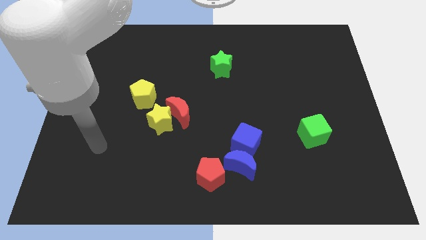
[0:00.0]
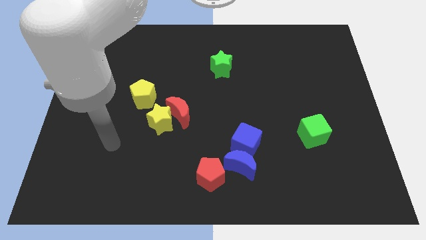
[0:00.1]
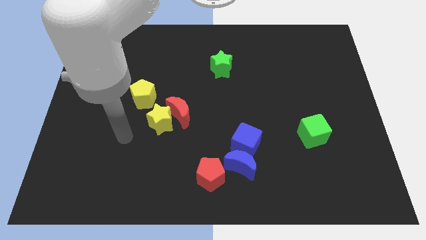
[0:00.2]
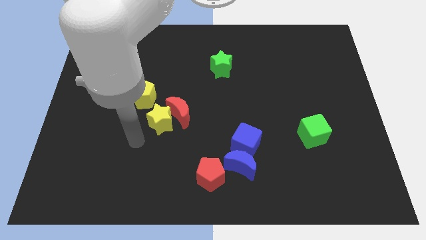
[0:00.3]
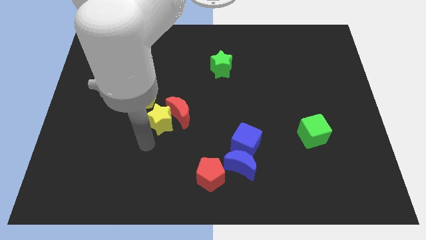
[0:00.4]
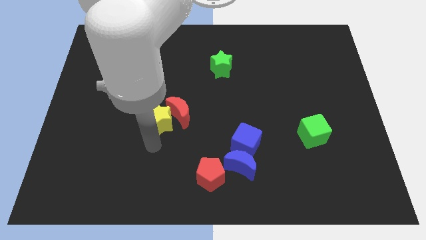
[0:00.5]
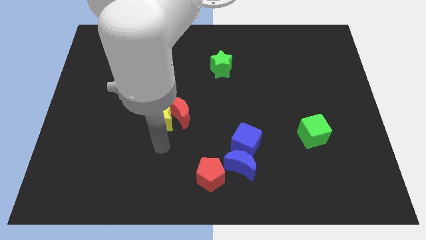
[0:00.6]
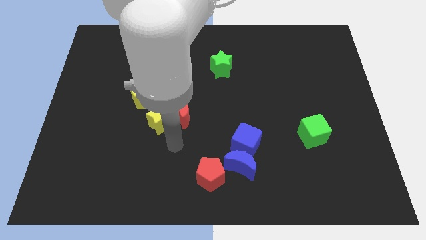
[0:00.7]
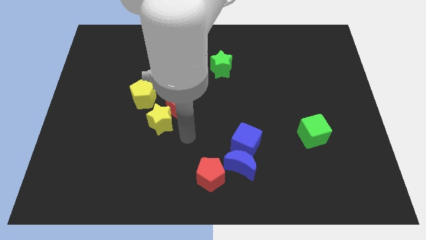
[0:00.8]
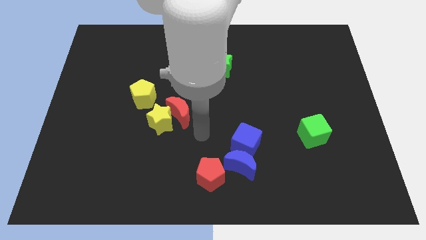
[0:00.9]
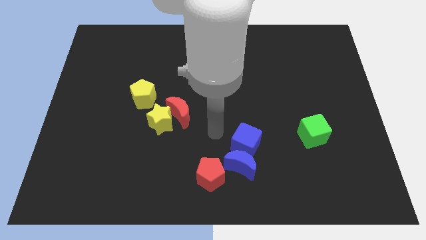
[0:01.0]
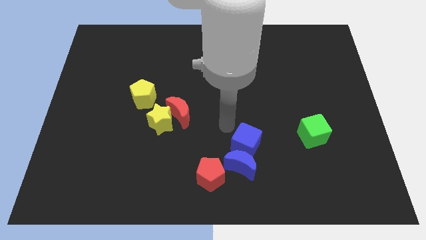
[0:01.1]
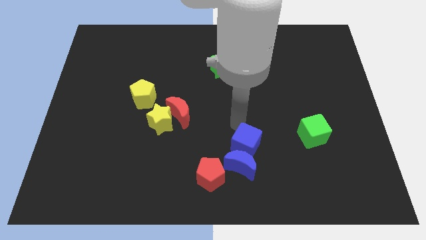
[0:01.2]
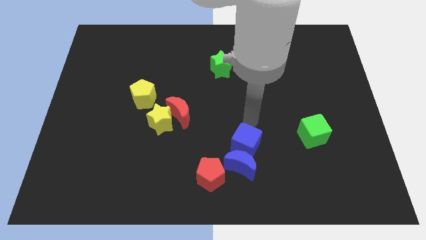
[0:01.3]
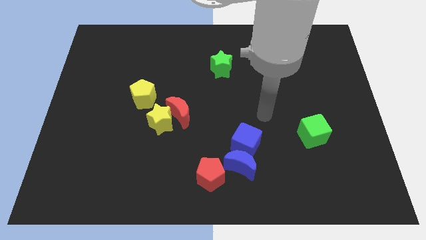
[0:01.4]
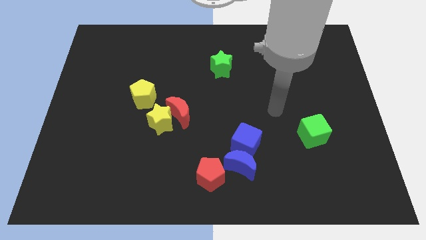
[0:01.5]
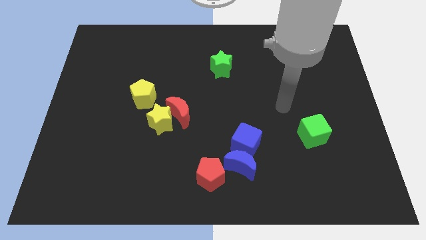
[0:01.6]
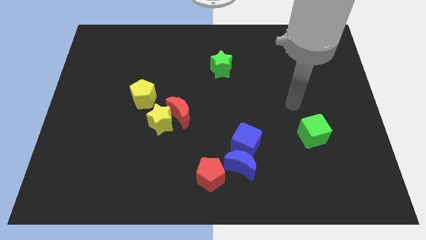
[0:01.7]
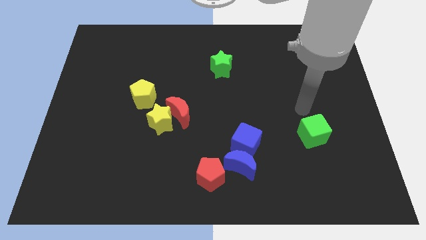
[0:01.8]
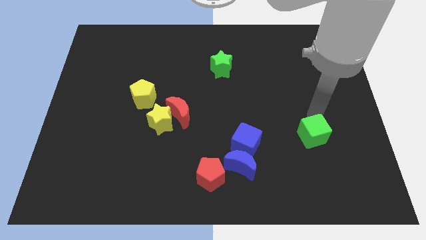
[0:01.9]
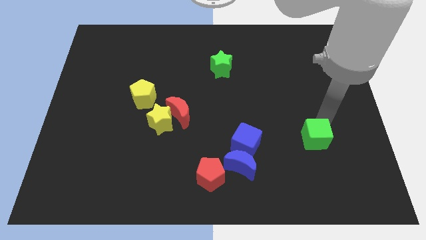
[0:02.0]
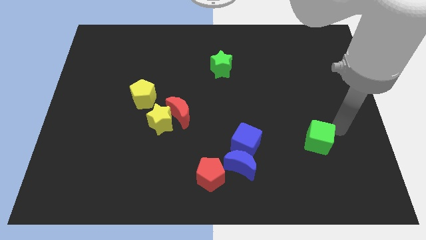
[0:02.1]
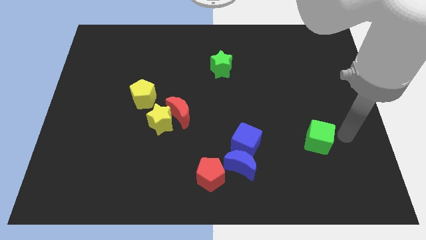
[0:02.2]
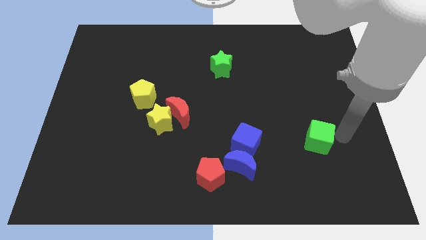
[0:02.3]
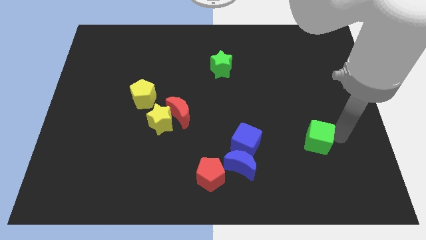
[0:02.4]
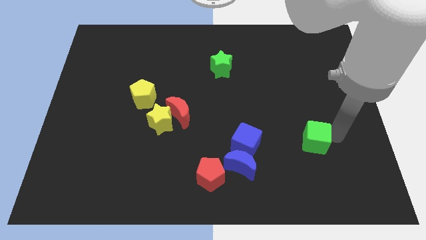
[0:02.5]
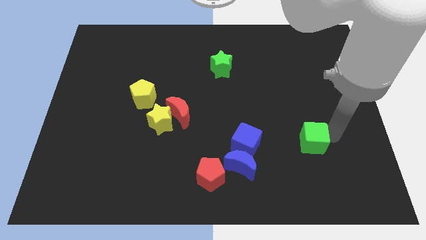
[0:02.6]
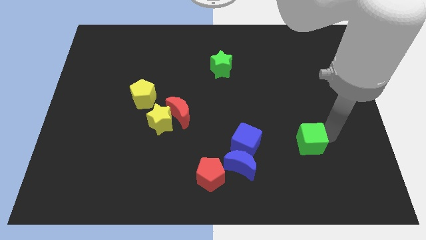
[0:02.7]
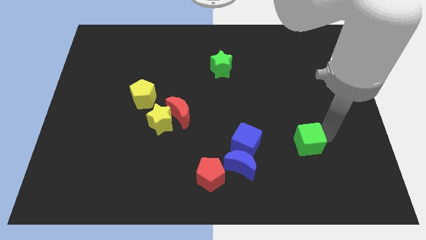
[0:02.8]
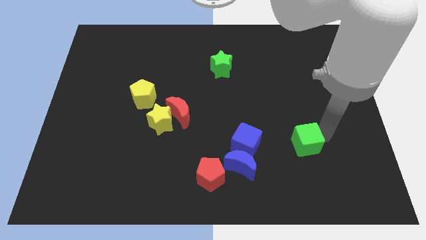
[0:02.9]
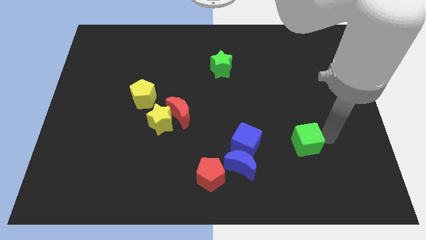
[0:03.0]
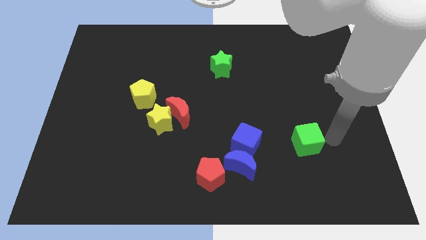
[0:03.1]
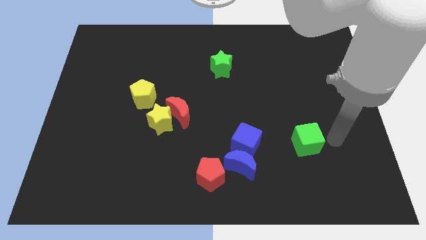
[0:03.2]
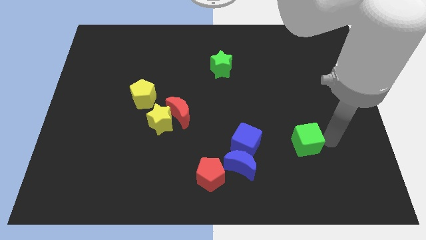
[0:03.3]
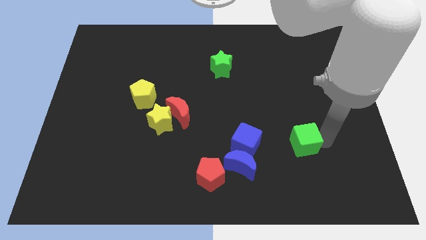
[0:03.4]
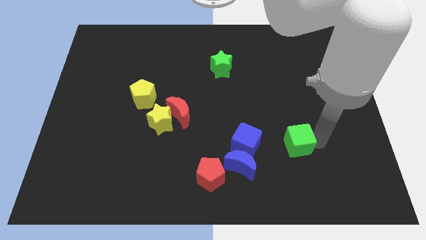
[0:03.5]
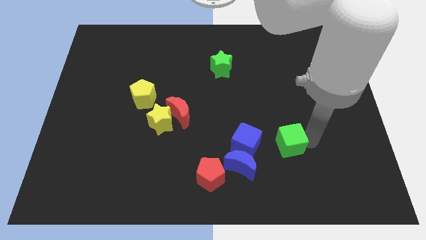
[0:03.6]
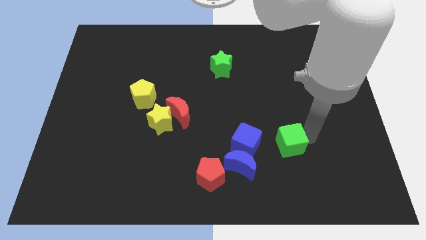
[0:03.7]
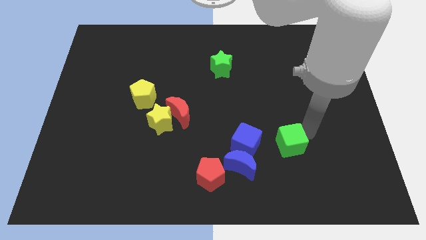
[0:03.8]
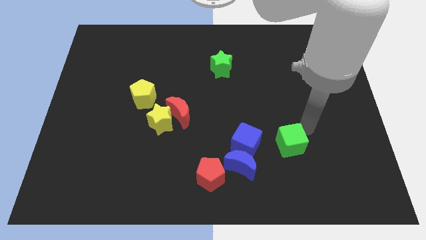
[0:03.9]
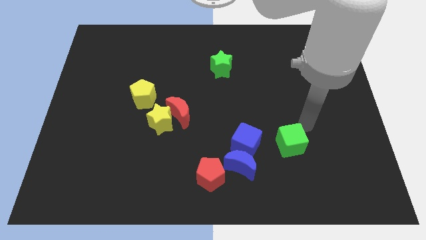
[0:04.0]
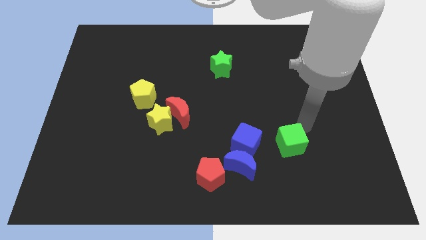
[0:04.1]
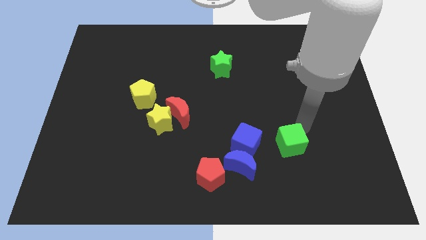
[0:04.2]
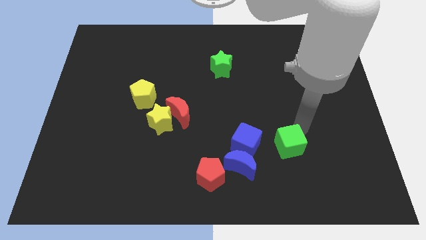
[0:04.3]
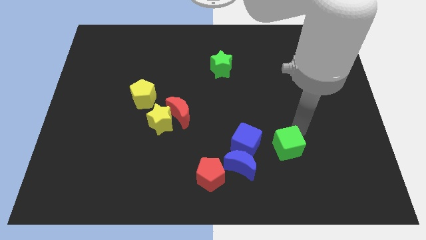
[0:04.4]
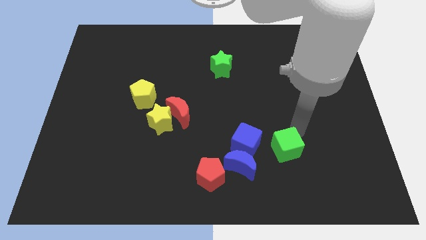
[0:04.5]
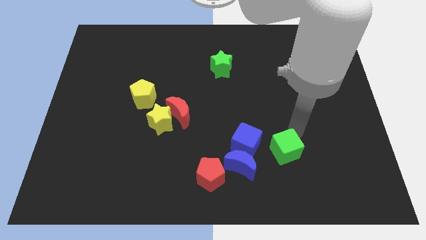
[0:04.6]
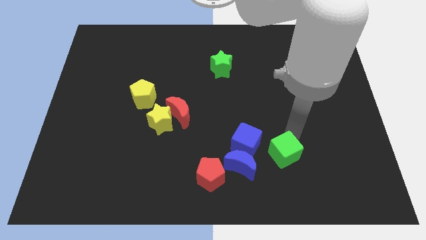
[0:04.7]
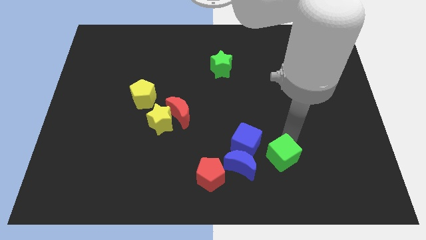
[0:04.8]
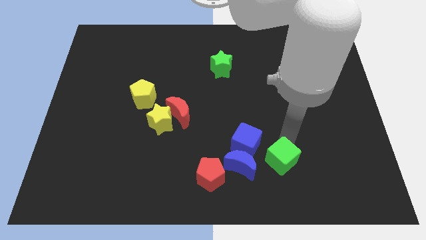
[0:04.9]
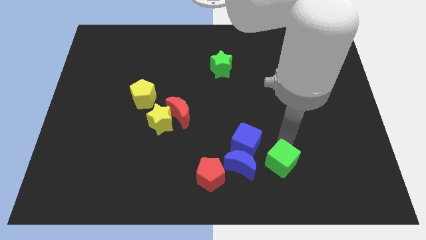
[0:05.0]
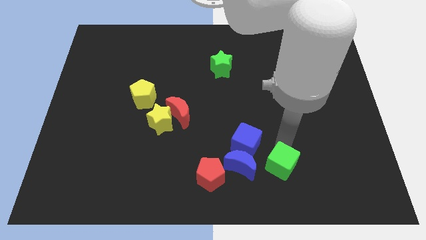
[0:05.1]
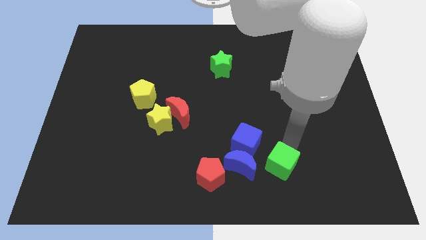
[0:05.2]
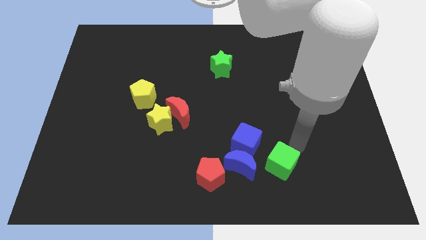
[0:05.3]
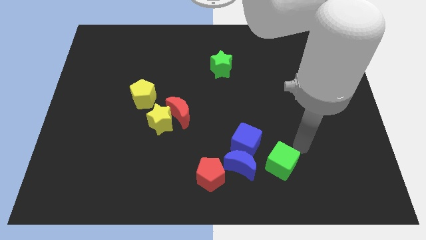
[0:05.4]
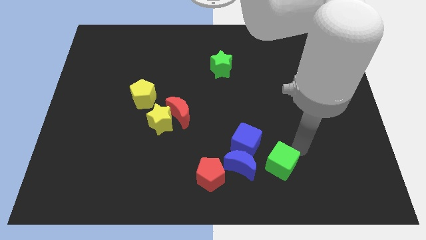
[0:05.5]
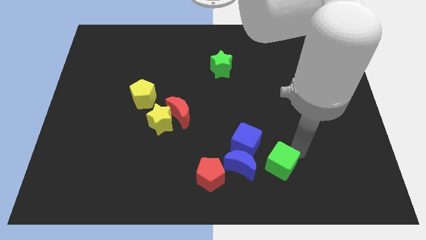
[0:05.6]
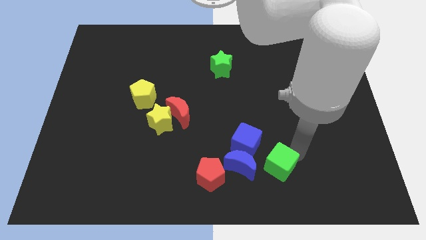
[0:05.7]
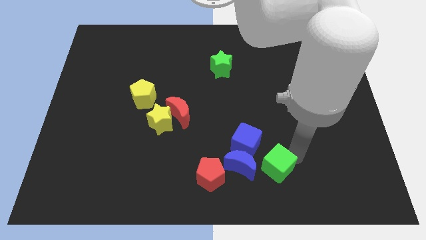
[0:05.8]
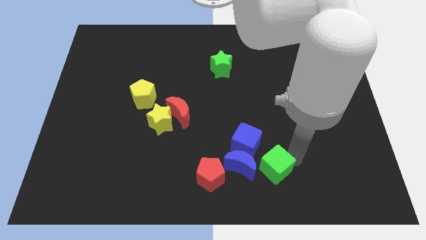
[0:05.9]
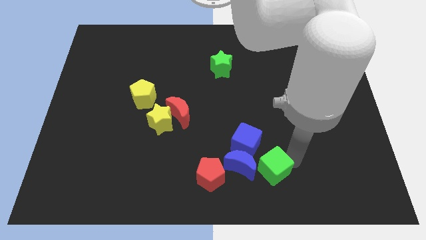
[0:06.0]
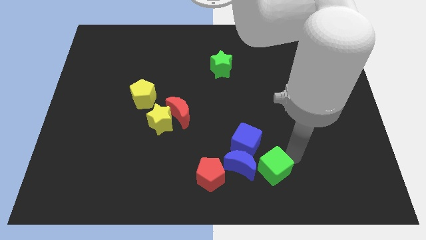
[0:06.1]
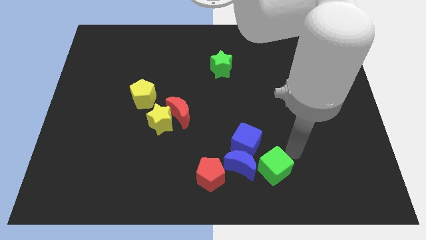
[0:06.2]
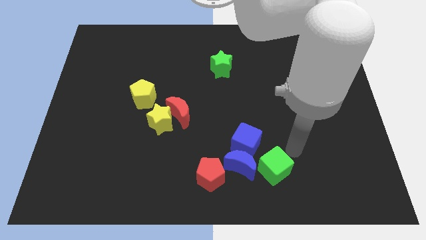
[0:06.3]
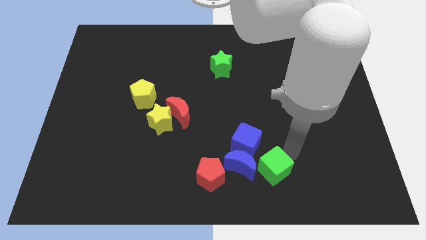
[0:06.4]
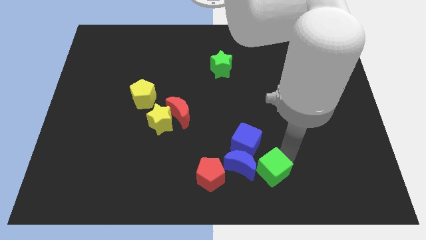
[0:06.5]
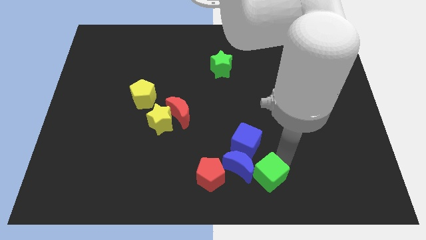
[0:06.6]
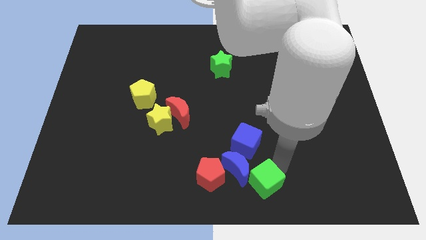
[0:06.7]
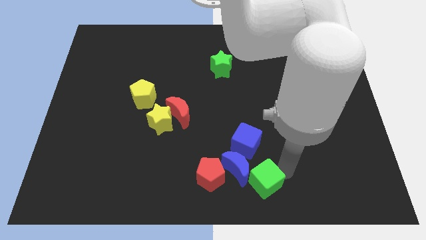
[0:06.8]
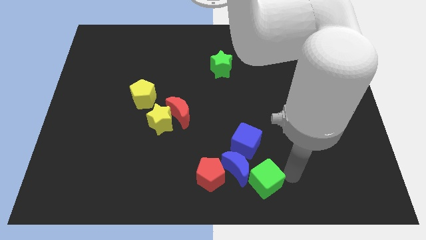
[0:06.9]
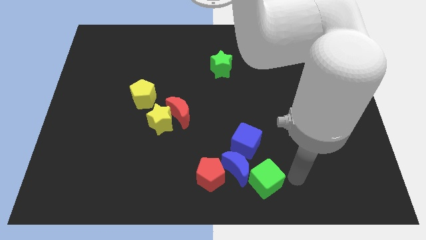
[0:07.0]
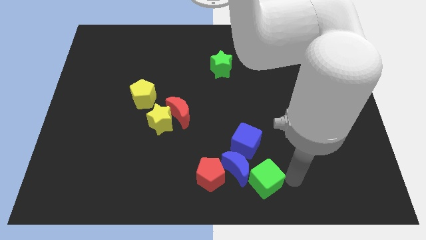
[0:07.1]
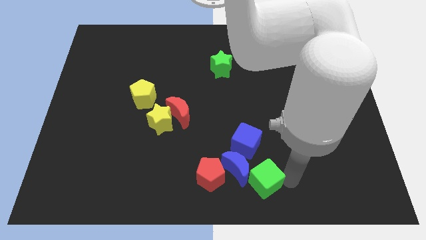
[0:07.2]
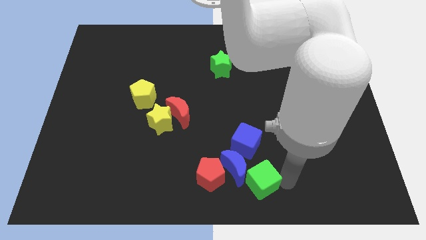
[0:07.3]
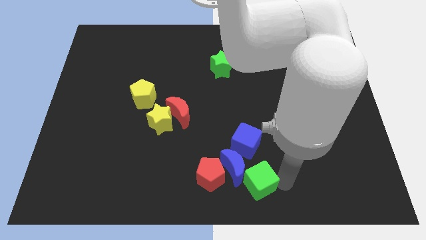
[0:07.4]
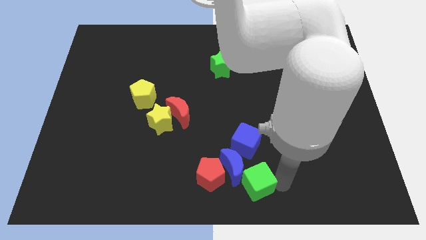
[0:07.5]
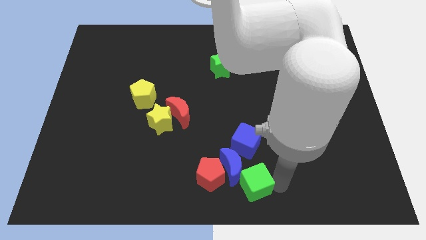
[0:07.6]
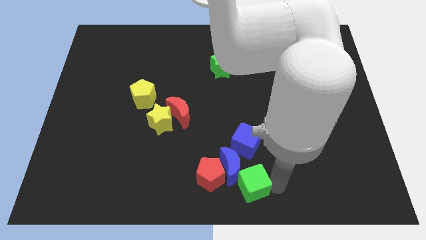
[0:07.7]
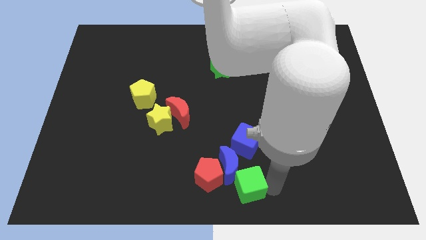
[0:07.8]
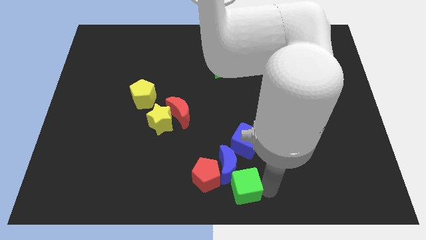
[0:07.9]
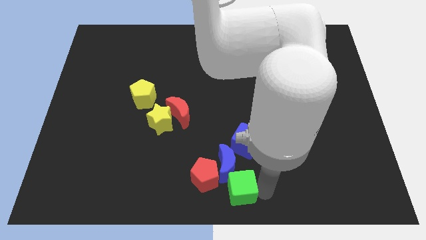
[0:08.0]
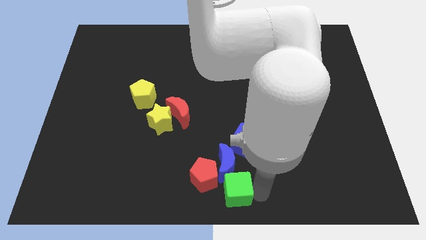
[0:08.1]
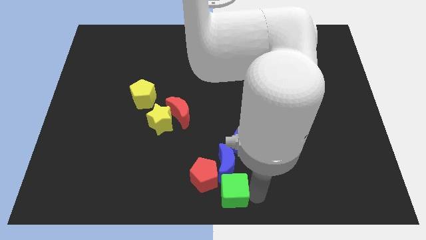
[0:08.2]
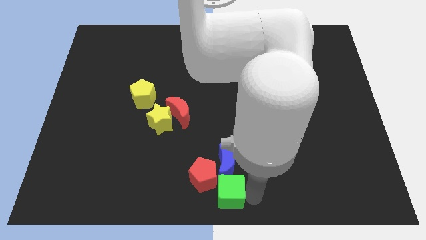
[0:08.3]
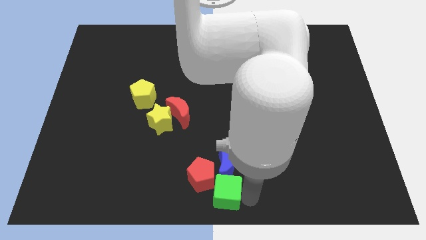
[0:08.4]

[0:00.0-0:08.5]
push the green cube close to the red pentagon
